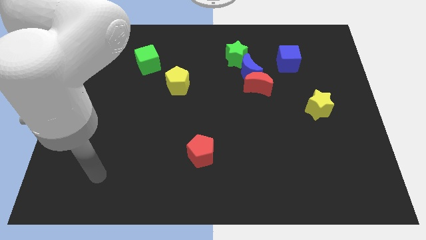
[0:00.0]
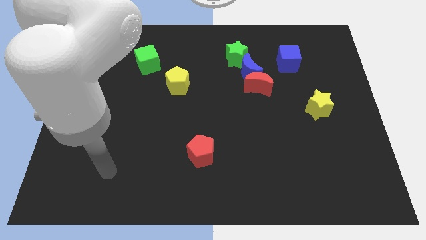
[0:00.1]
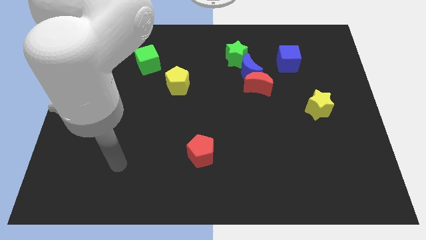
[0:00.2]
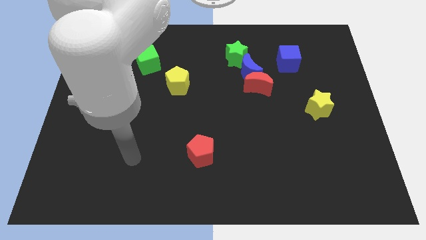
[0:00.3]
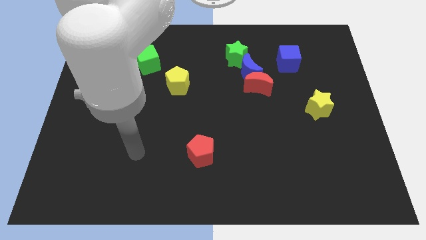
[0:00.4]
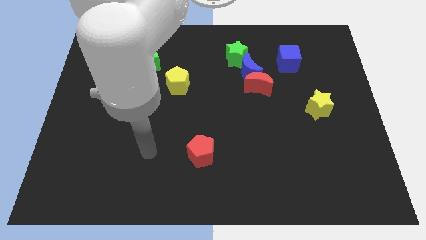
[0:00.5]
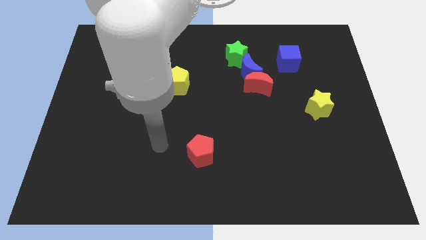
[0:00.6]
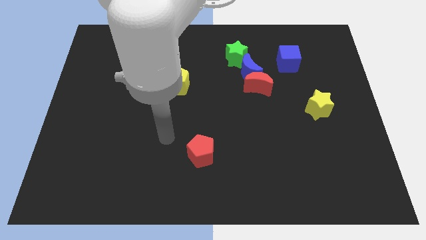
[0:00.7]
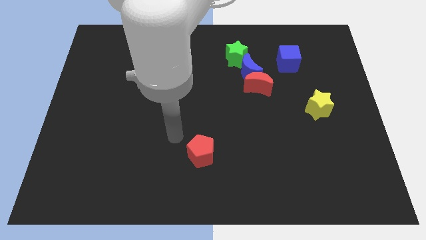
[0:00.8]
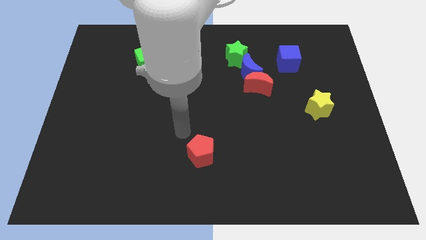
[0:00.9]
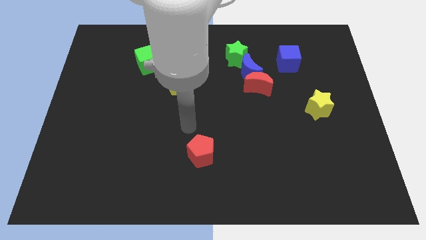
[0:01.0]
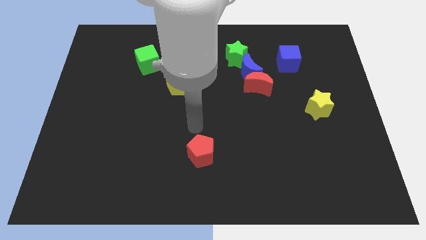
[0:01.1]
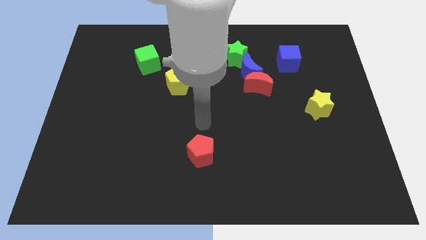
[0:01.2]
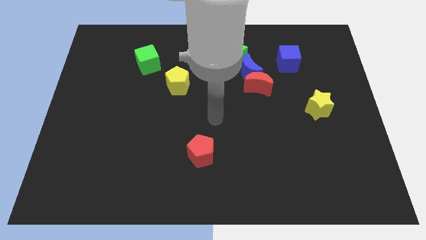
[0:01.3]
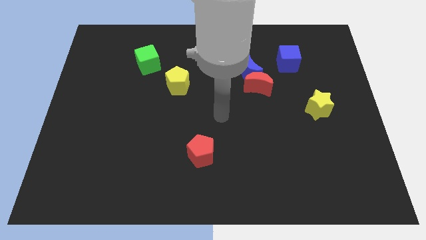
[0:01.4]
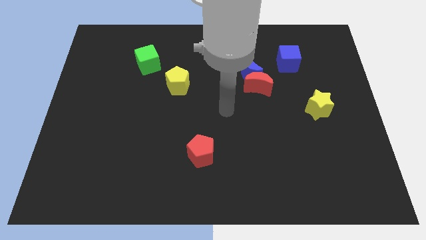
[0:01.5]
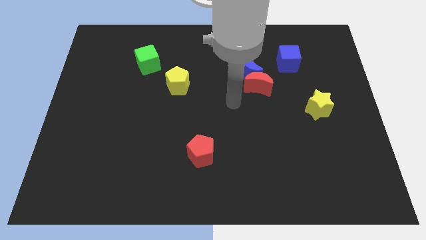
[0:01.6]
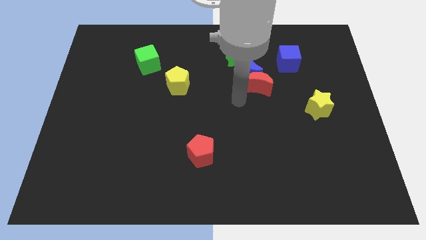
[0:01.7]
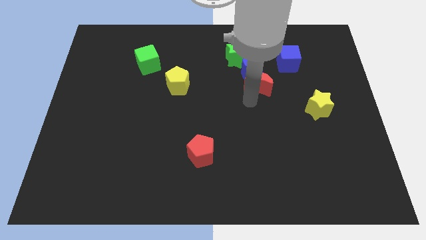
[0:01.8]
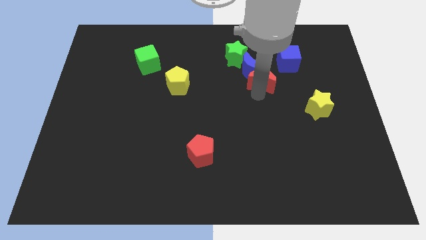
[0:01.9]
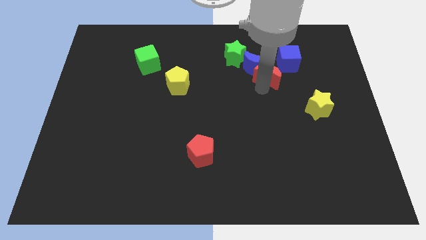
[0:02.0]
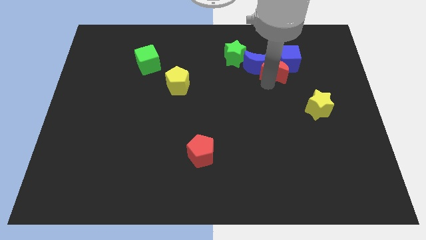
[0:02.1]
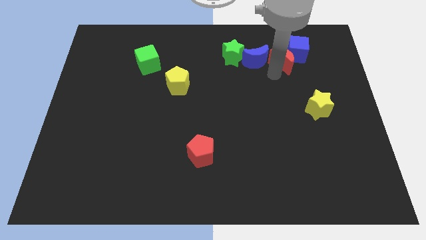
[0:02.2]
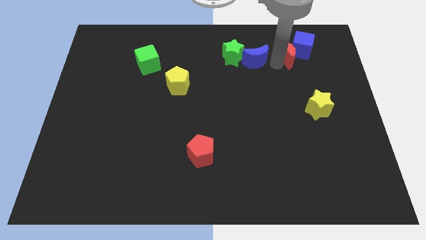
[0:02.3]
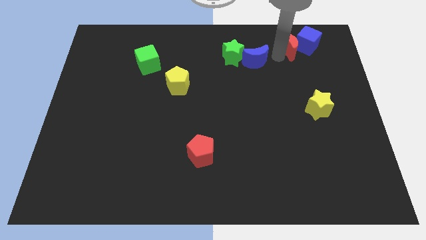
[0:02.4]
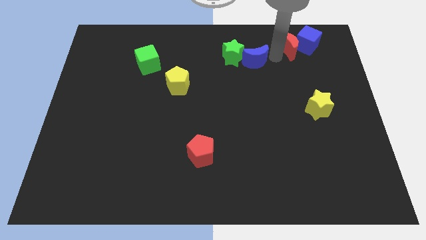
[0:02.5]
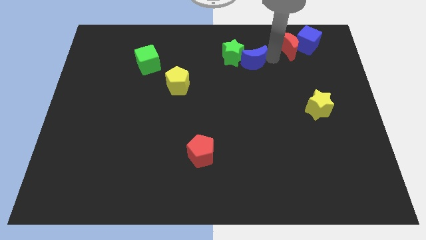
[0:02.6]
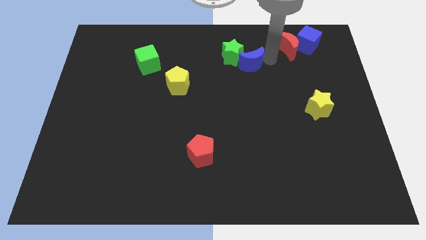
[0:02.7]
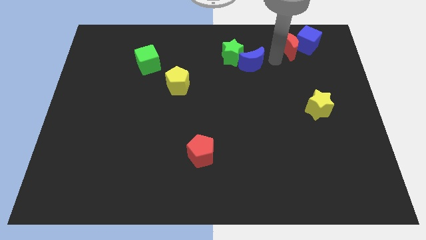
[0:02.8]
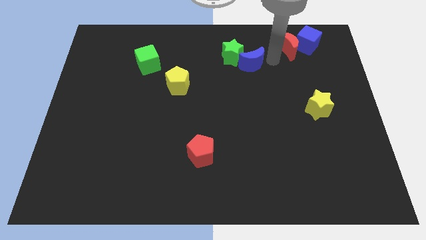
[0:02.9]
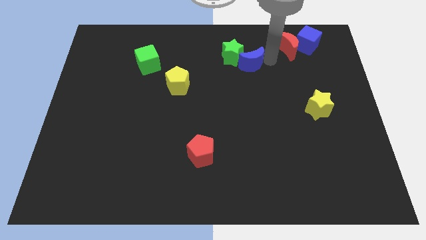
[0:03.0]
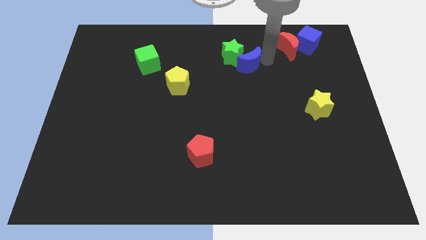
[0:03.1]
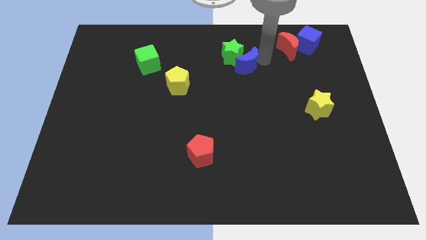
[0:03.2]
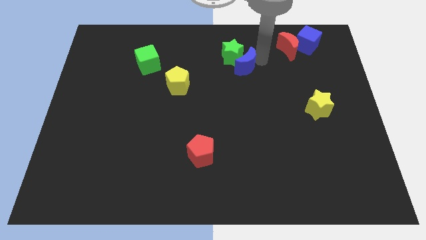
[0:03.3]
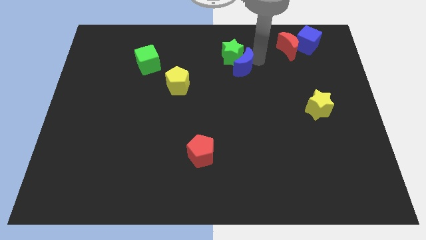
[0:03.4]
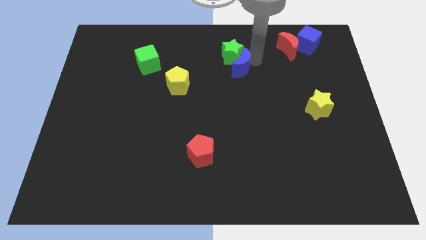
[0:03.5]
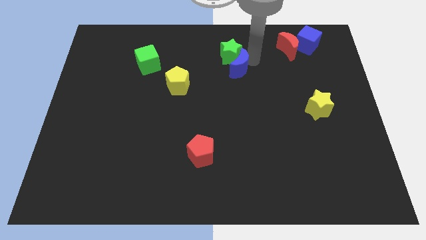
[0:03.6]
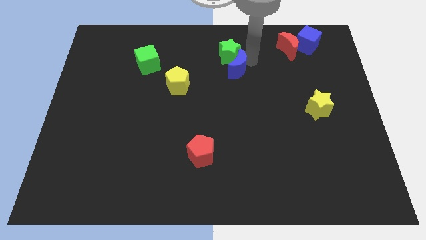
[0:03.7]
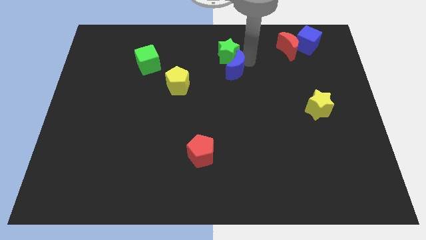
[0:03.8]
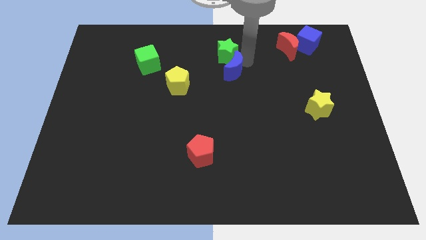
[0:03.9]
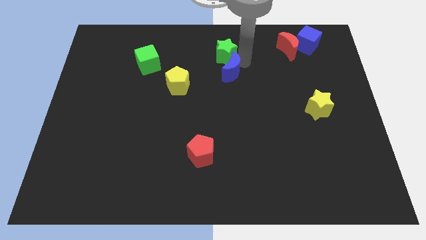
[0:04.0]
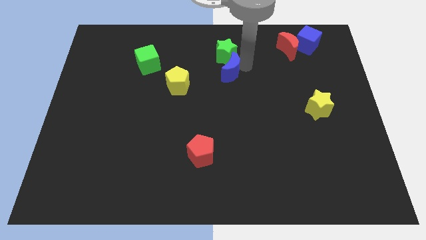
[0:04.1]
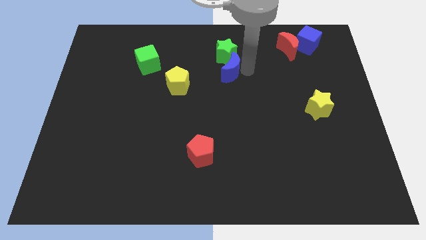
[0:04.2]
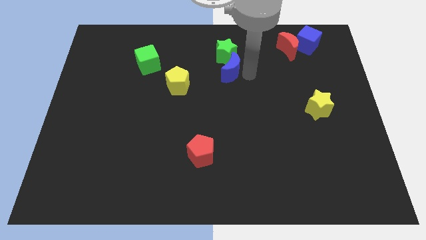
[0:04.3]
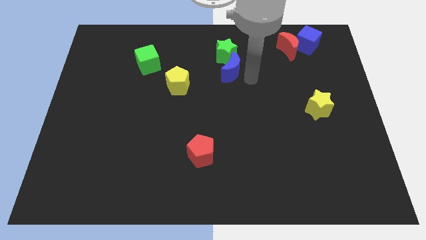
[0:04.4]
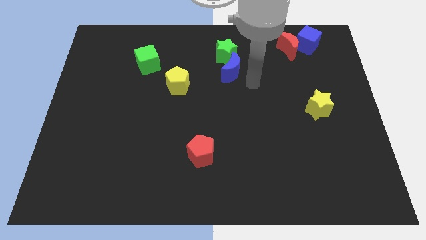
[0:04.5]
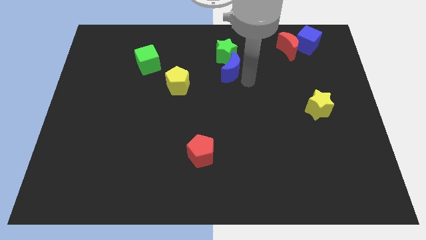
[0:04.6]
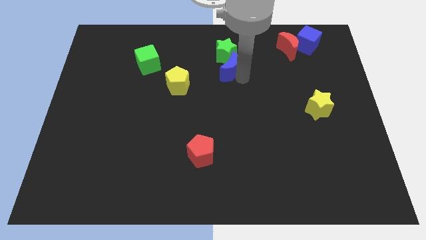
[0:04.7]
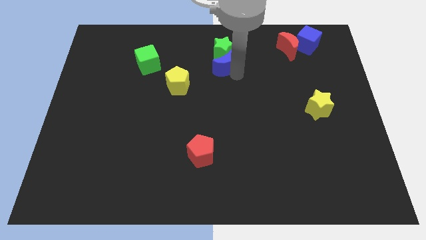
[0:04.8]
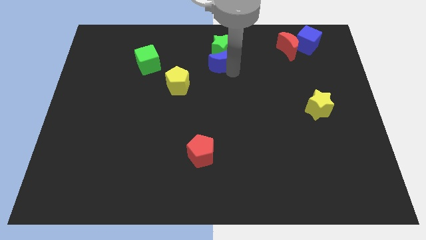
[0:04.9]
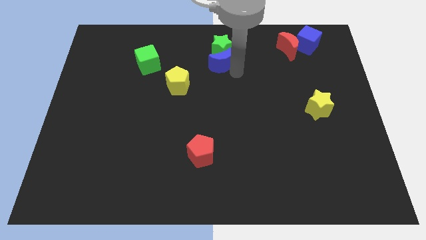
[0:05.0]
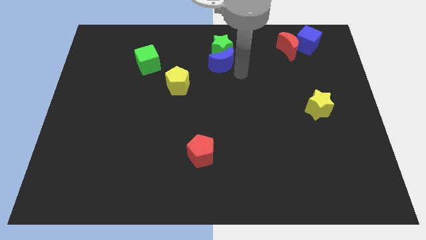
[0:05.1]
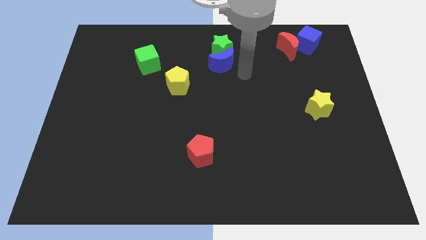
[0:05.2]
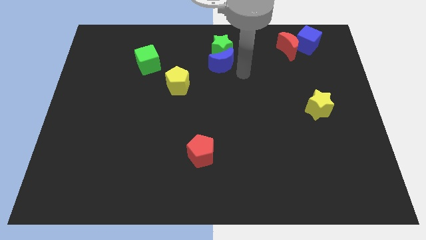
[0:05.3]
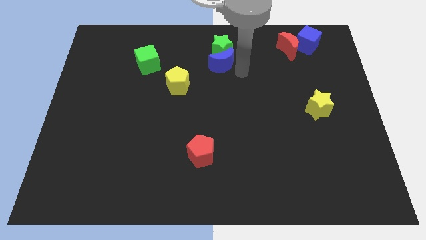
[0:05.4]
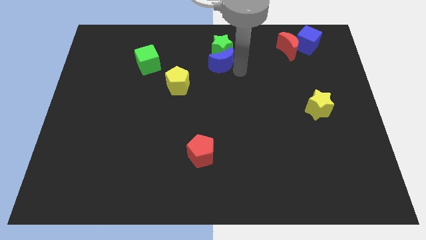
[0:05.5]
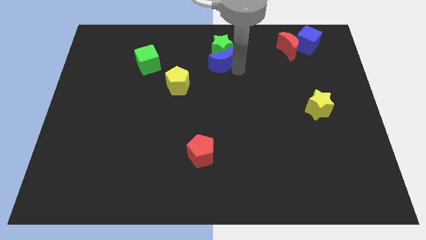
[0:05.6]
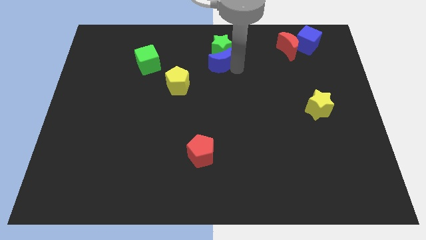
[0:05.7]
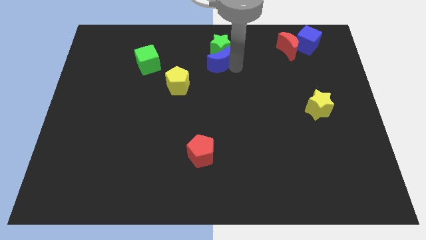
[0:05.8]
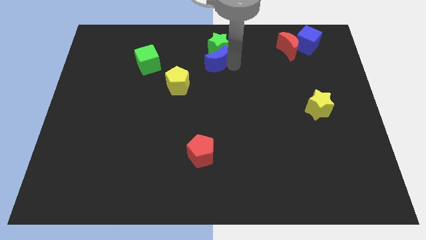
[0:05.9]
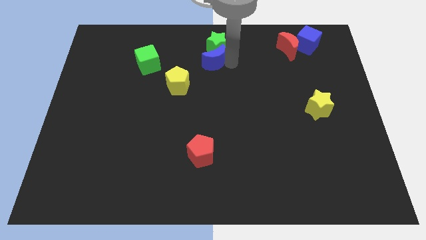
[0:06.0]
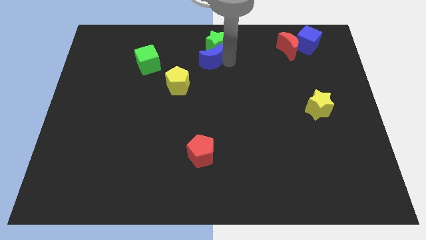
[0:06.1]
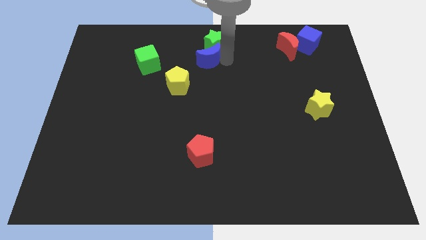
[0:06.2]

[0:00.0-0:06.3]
push the blue moon just right of the green cube
